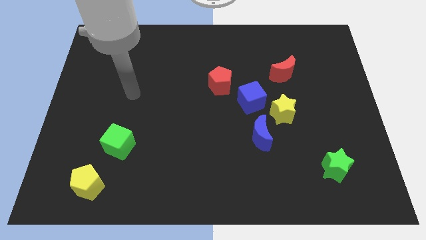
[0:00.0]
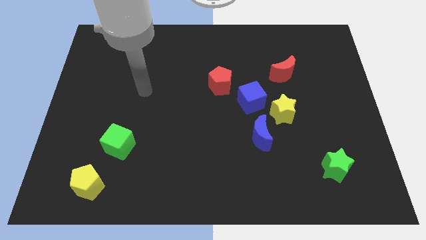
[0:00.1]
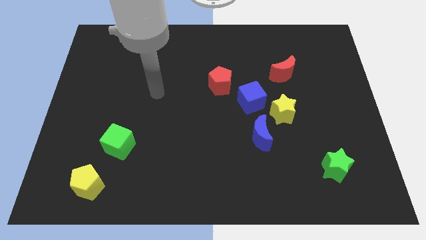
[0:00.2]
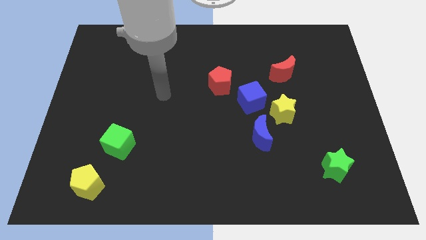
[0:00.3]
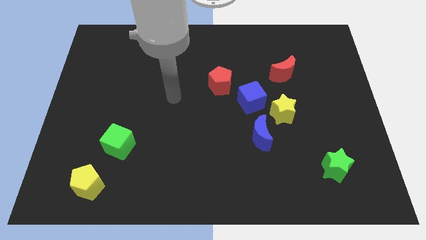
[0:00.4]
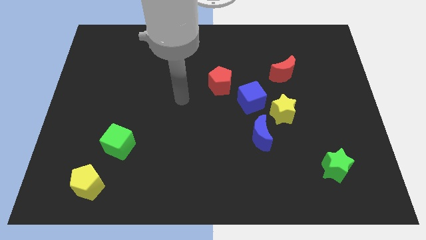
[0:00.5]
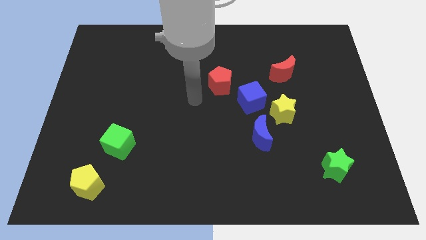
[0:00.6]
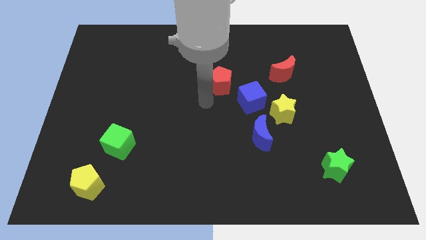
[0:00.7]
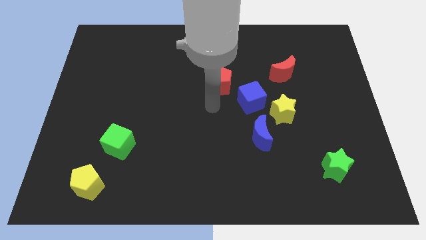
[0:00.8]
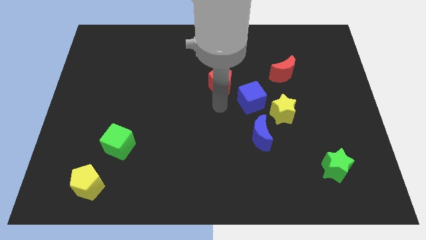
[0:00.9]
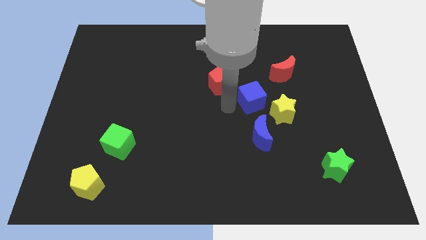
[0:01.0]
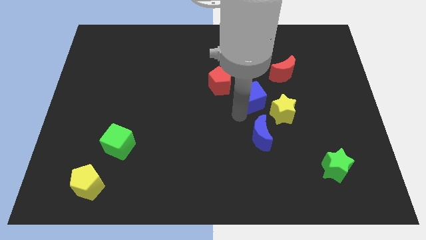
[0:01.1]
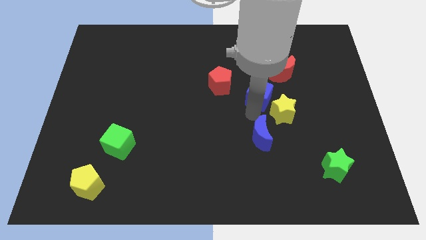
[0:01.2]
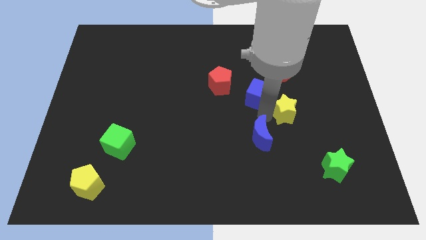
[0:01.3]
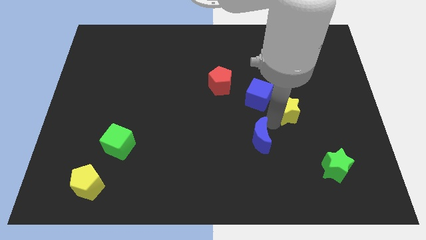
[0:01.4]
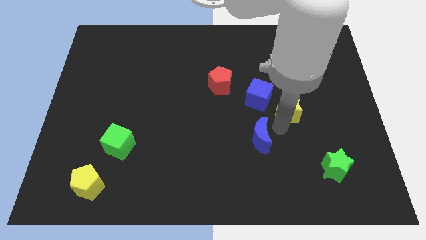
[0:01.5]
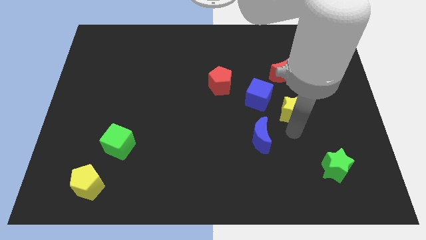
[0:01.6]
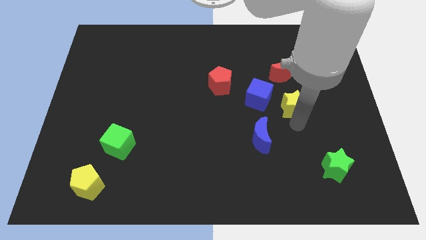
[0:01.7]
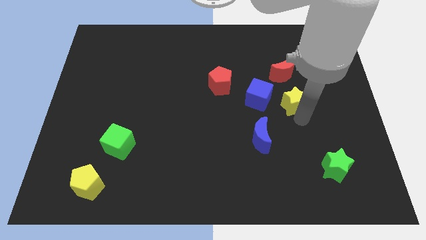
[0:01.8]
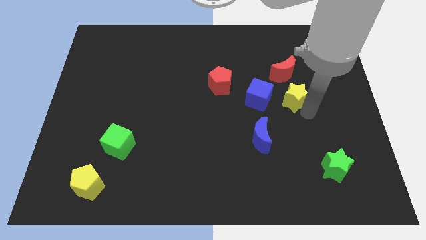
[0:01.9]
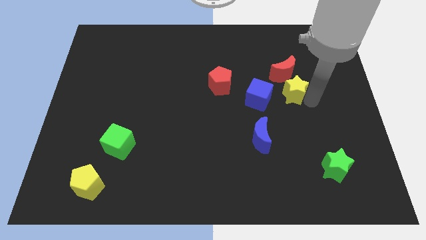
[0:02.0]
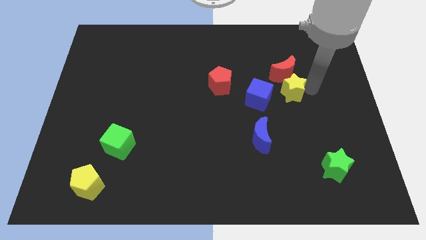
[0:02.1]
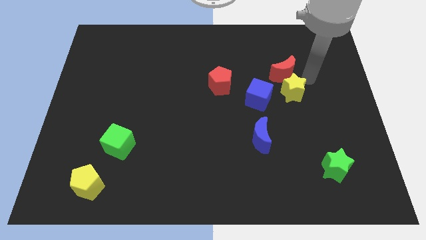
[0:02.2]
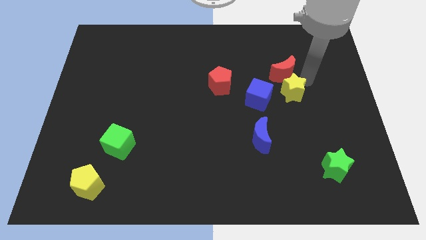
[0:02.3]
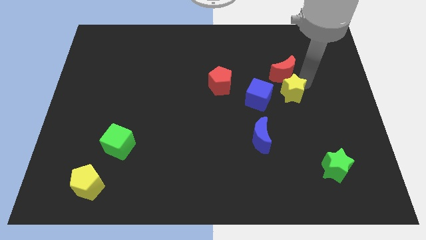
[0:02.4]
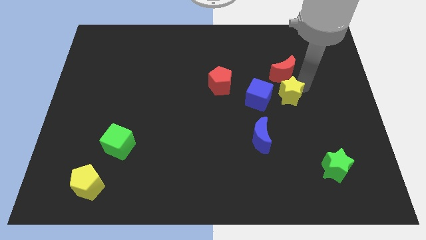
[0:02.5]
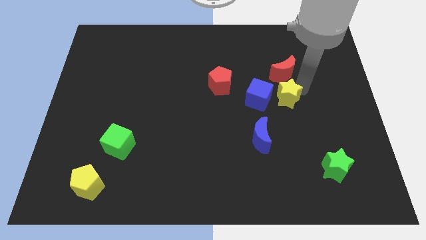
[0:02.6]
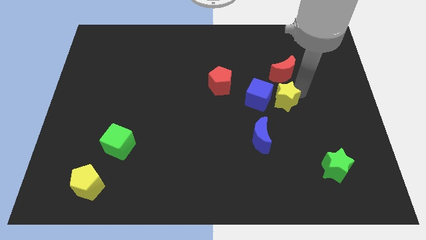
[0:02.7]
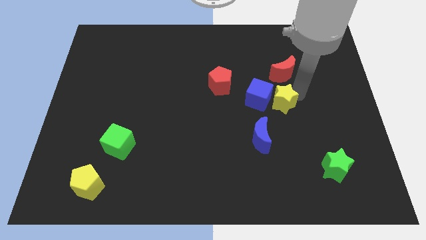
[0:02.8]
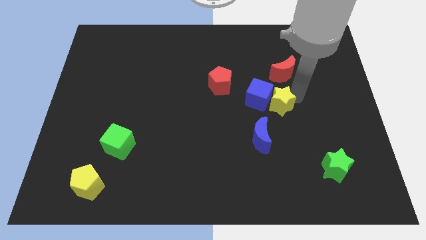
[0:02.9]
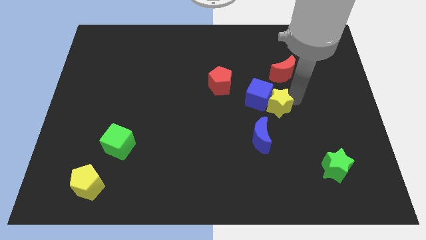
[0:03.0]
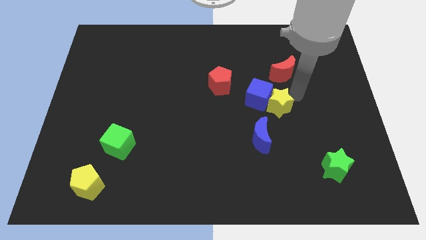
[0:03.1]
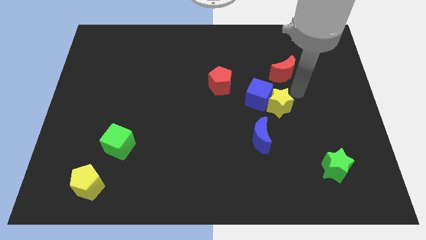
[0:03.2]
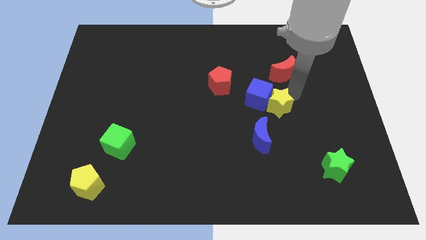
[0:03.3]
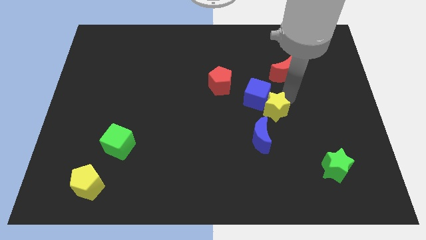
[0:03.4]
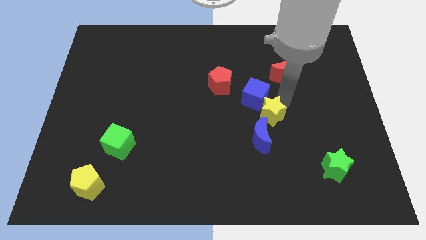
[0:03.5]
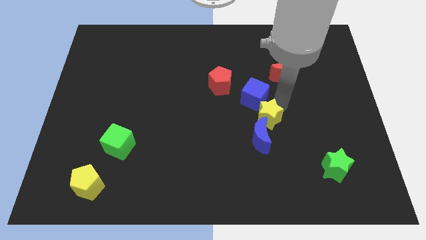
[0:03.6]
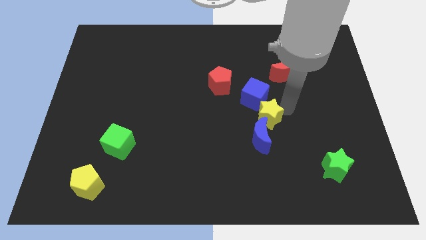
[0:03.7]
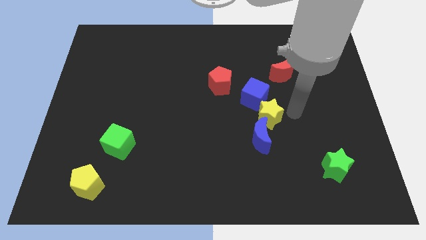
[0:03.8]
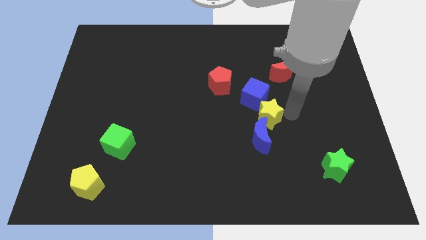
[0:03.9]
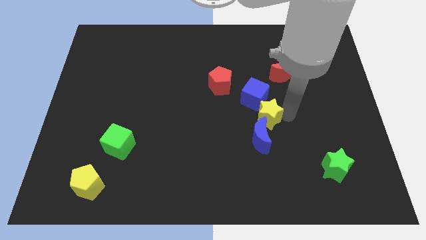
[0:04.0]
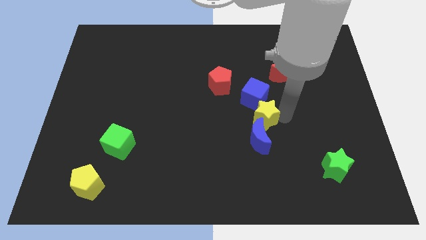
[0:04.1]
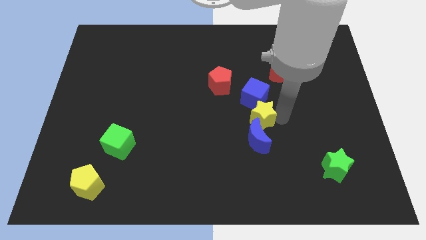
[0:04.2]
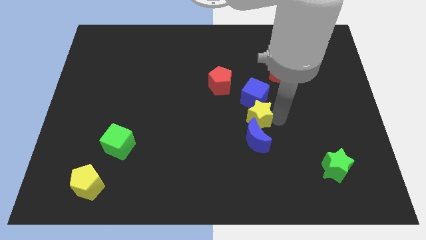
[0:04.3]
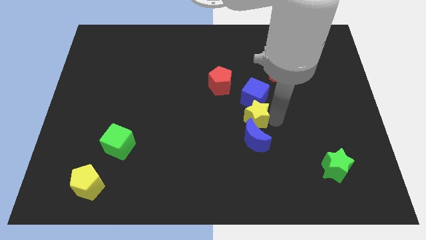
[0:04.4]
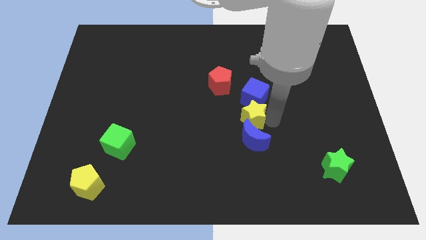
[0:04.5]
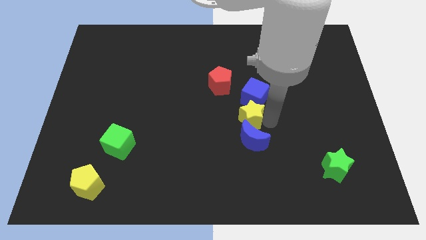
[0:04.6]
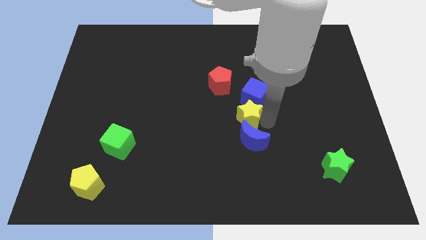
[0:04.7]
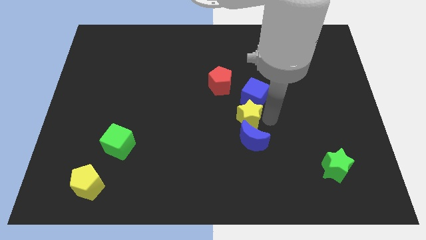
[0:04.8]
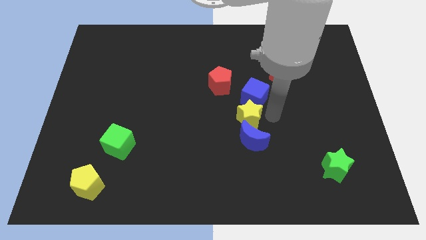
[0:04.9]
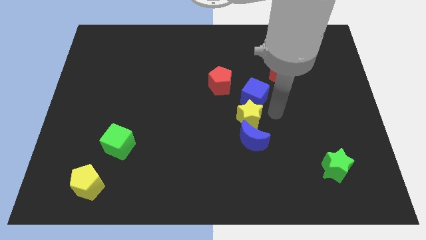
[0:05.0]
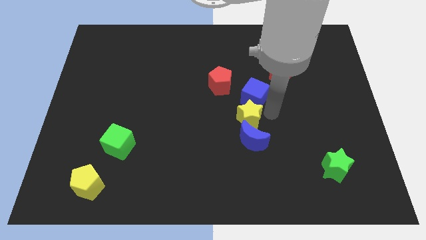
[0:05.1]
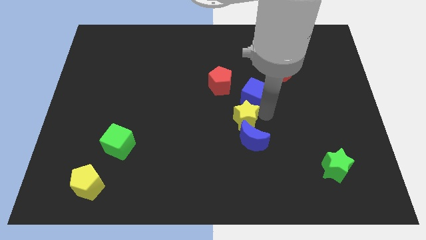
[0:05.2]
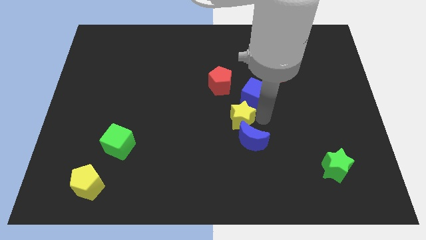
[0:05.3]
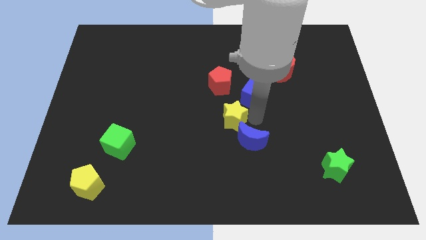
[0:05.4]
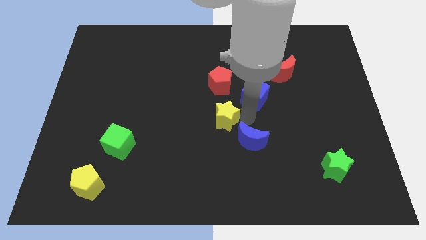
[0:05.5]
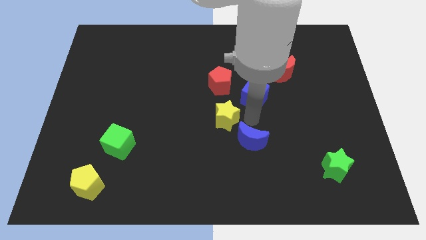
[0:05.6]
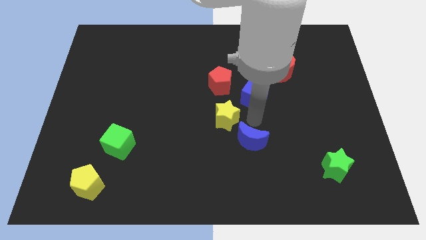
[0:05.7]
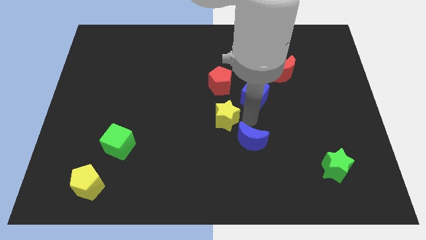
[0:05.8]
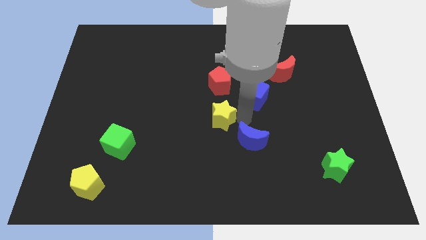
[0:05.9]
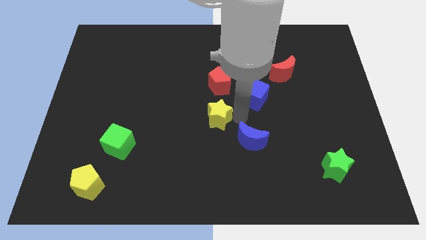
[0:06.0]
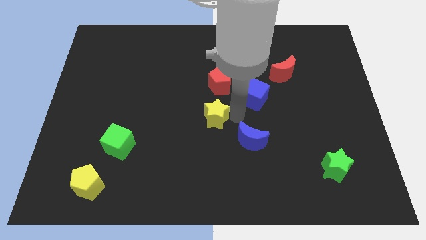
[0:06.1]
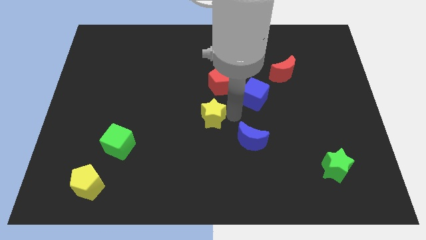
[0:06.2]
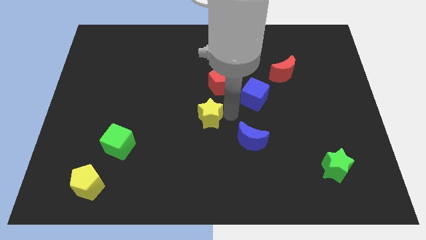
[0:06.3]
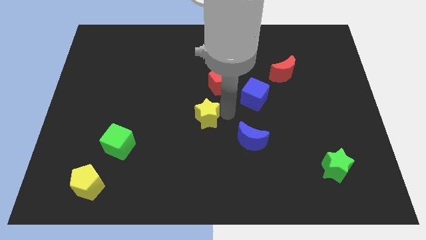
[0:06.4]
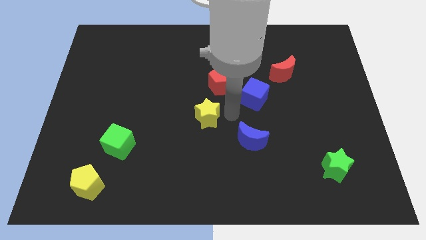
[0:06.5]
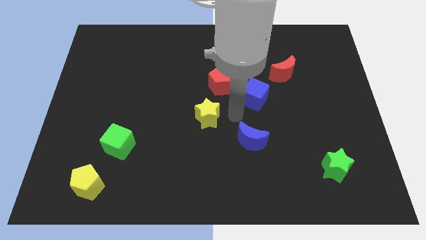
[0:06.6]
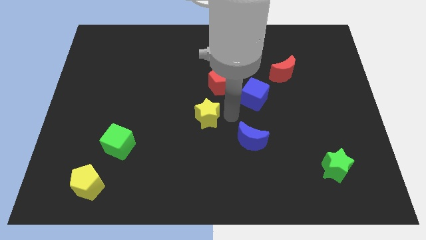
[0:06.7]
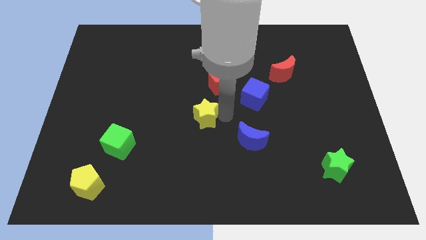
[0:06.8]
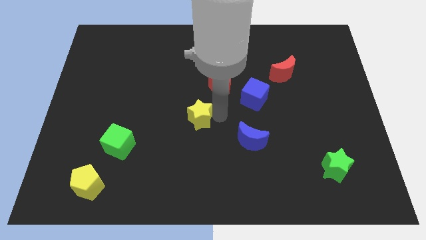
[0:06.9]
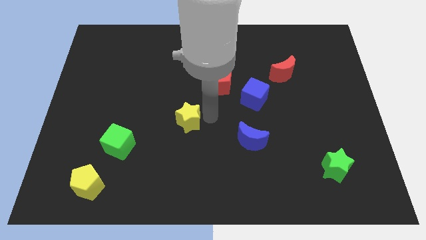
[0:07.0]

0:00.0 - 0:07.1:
slide the yellow star left

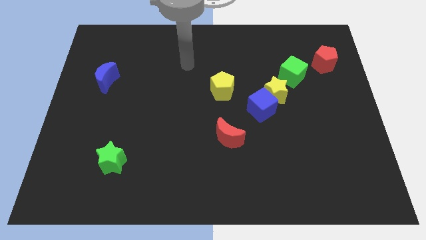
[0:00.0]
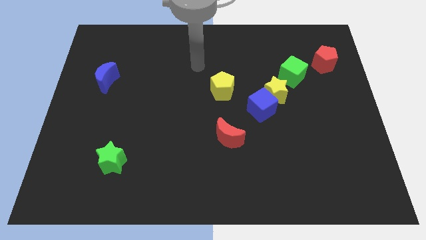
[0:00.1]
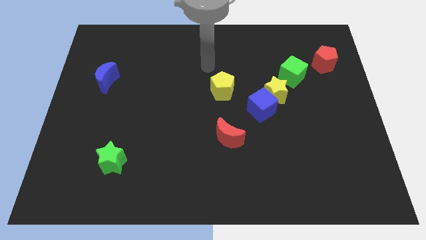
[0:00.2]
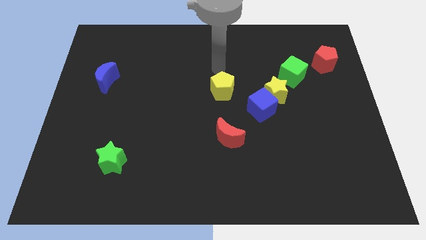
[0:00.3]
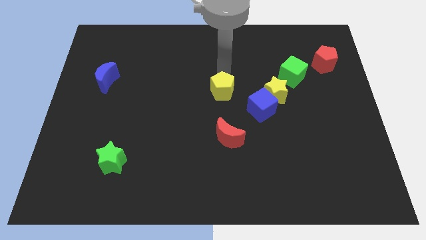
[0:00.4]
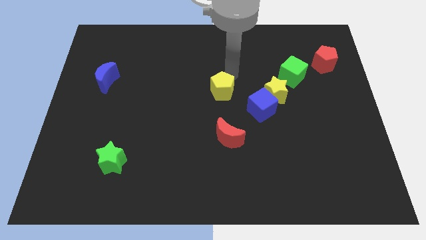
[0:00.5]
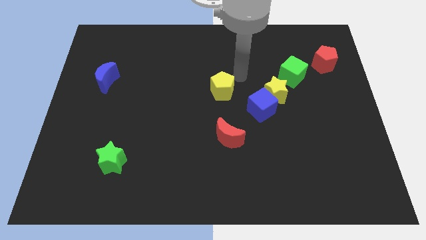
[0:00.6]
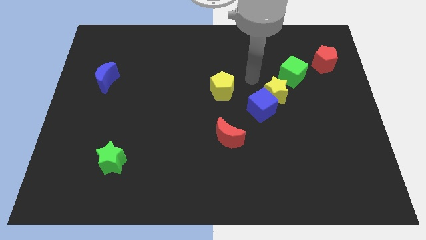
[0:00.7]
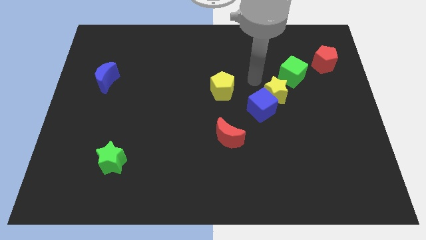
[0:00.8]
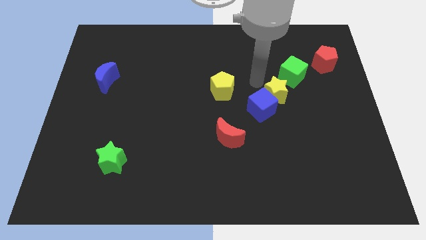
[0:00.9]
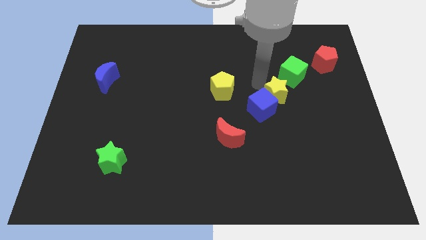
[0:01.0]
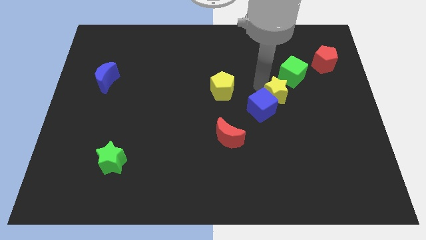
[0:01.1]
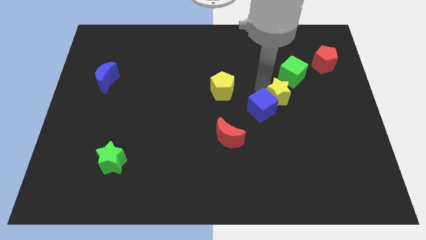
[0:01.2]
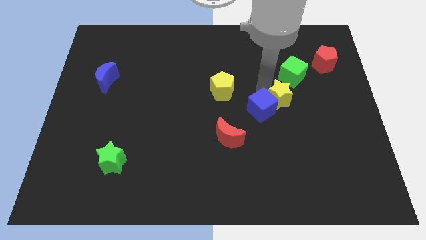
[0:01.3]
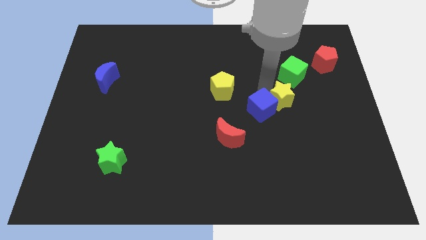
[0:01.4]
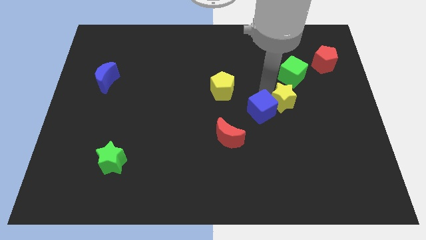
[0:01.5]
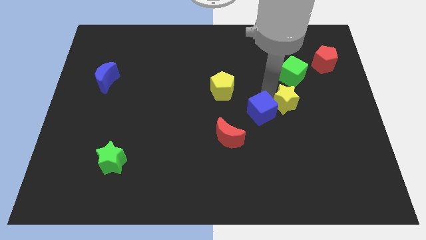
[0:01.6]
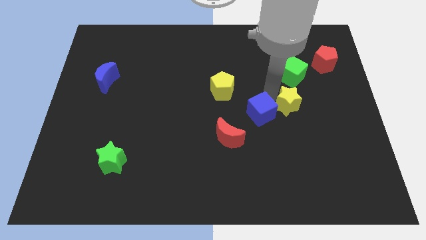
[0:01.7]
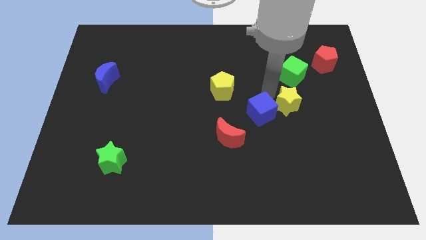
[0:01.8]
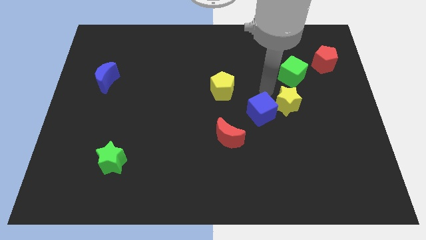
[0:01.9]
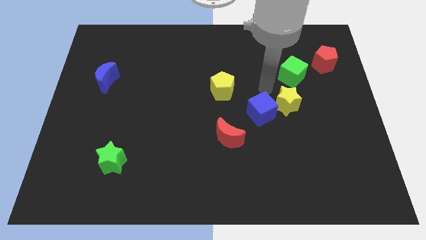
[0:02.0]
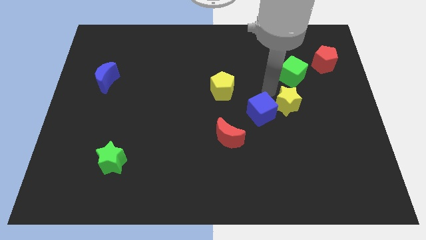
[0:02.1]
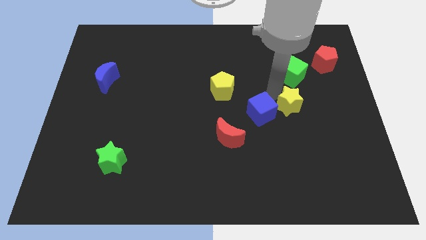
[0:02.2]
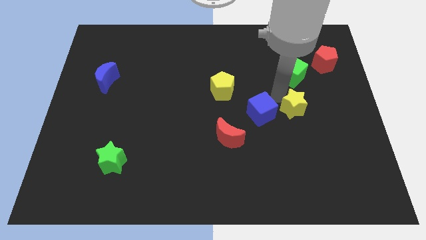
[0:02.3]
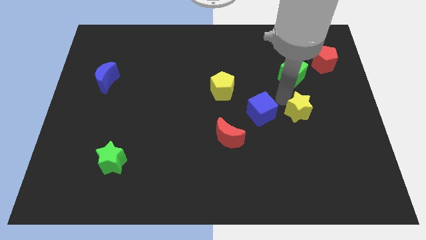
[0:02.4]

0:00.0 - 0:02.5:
slide the yellow star somewhat diagonally downwards and right
